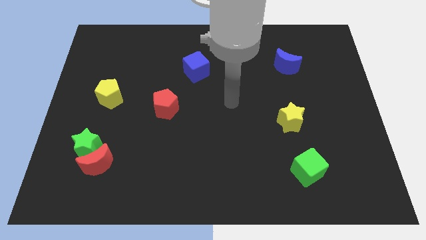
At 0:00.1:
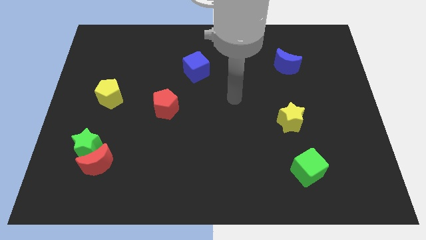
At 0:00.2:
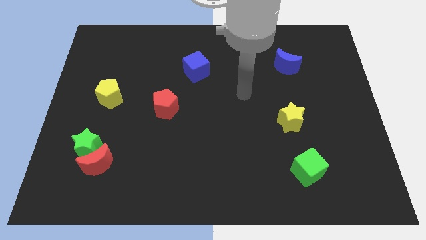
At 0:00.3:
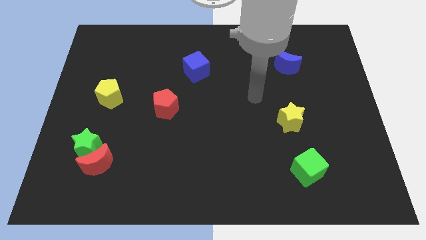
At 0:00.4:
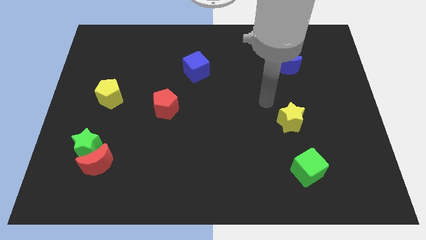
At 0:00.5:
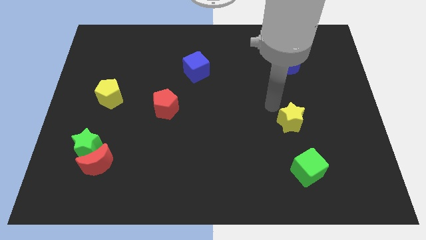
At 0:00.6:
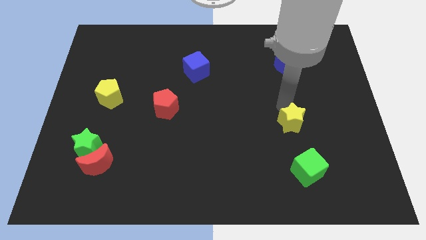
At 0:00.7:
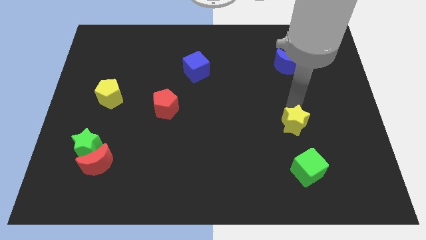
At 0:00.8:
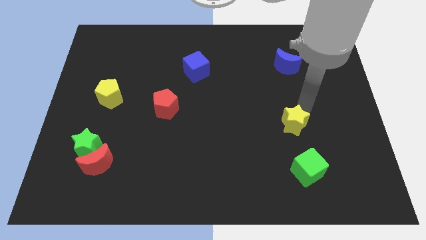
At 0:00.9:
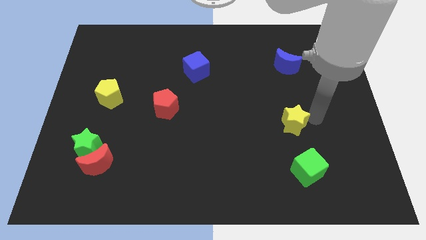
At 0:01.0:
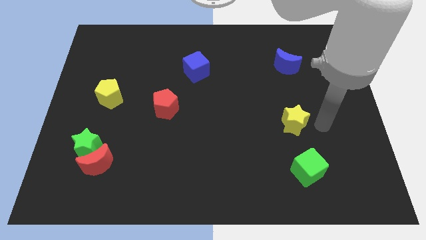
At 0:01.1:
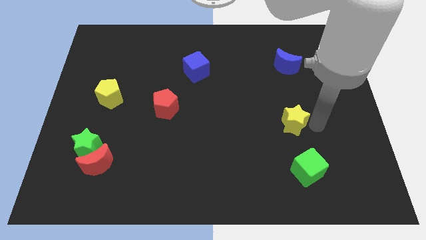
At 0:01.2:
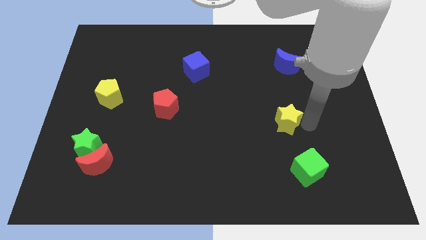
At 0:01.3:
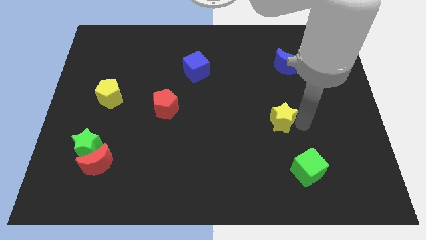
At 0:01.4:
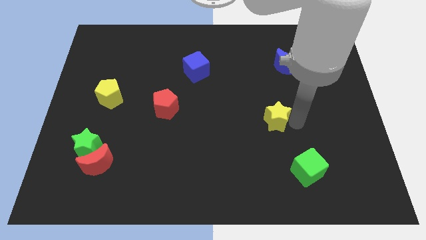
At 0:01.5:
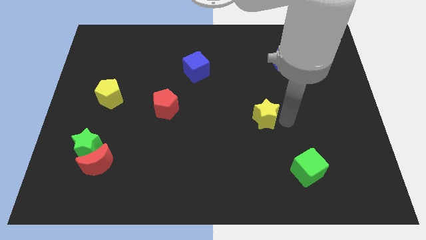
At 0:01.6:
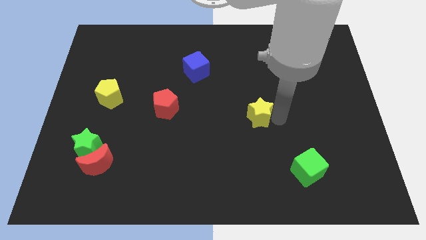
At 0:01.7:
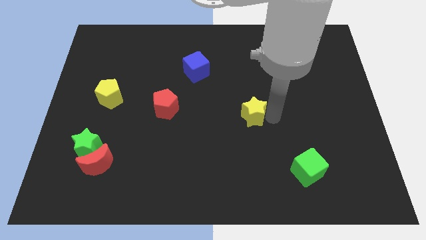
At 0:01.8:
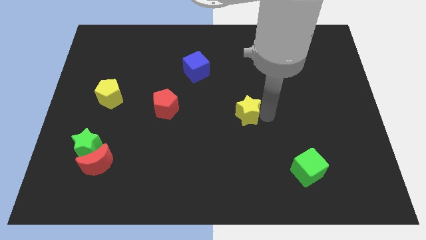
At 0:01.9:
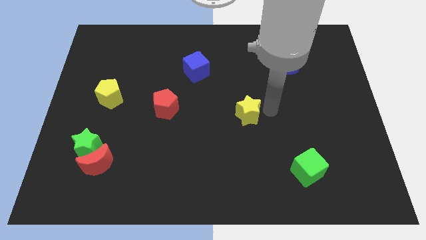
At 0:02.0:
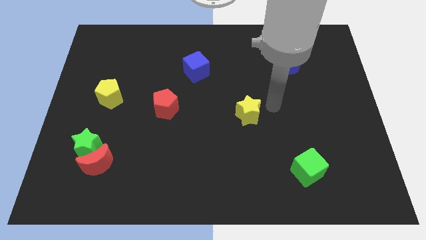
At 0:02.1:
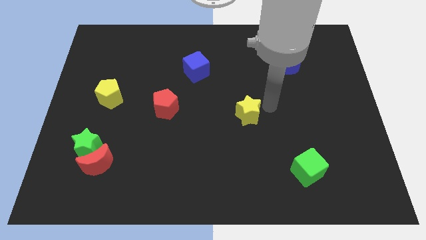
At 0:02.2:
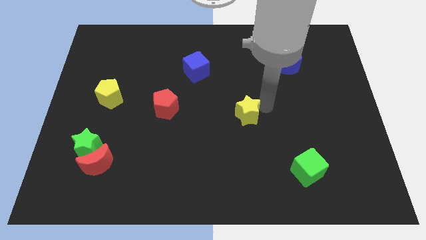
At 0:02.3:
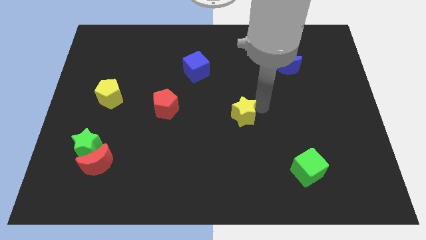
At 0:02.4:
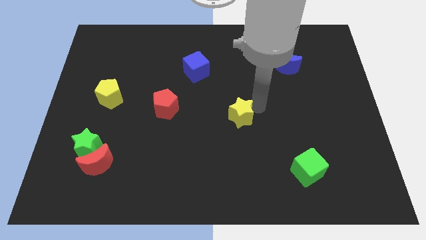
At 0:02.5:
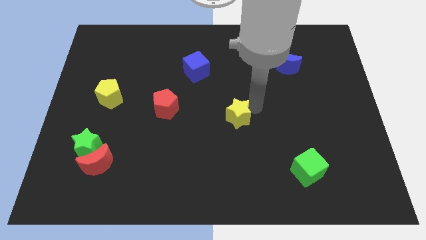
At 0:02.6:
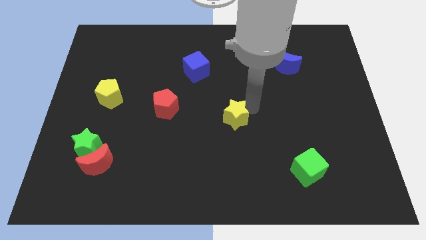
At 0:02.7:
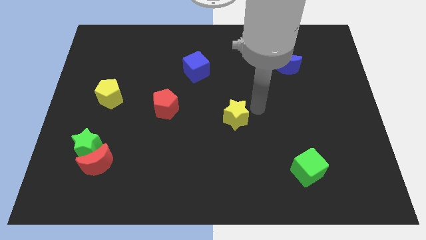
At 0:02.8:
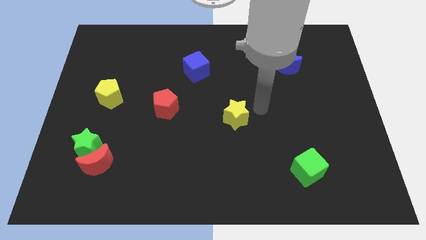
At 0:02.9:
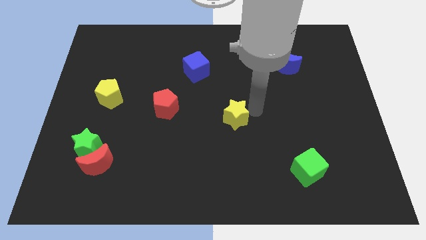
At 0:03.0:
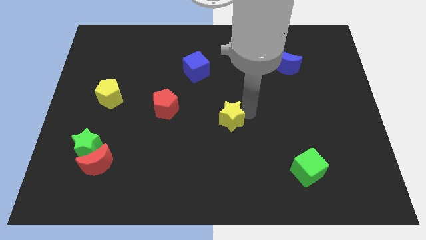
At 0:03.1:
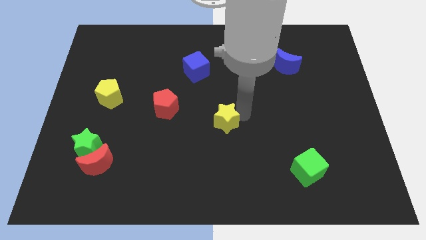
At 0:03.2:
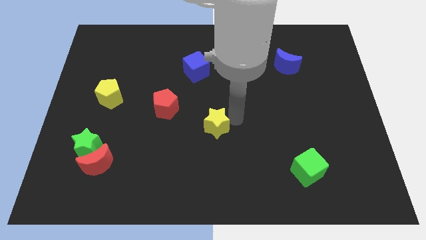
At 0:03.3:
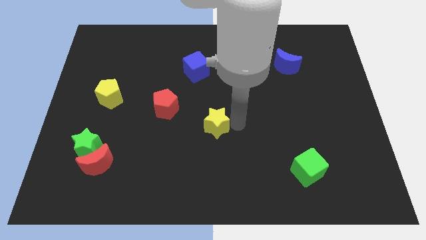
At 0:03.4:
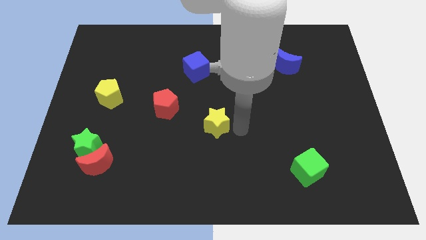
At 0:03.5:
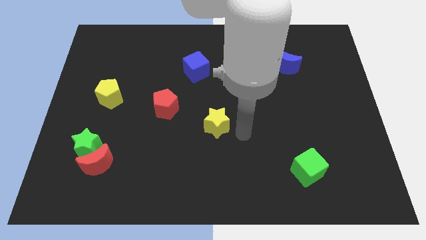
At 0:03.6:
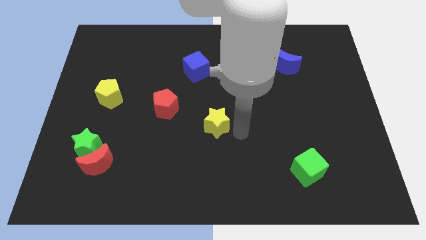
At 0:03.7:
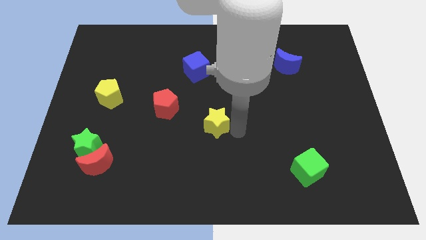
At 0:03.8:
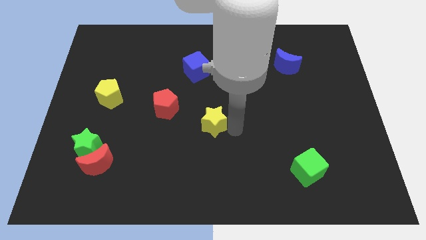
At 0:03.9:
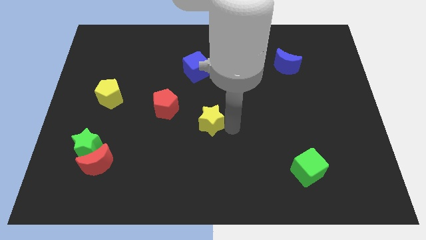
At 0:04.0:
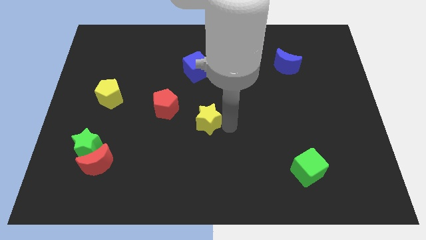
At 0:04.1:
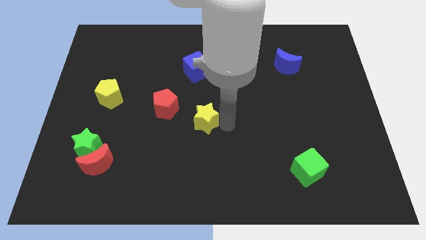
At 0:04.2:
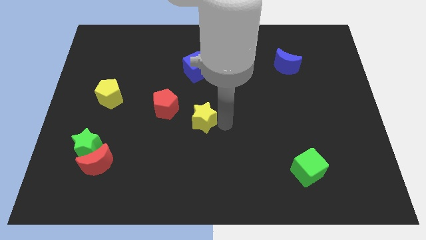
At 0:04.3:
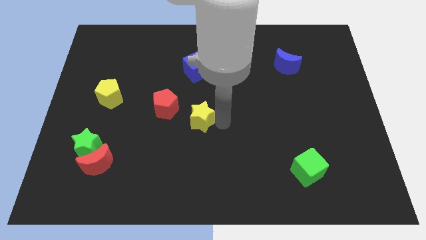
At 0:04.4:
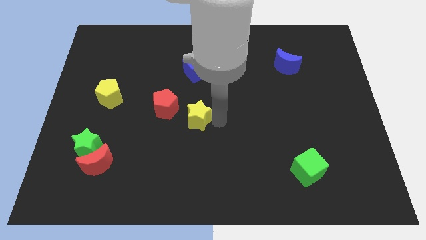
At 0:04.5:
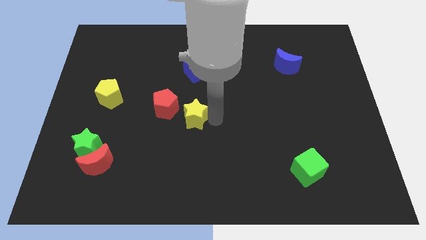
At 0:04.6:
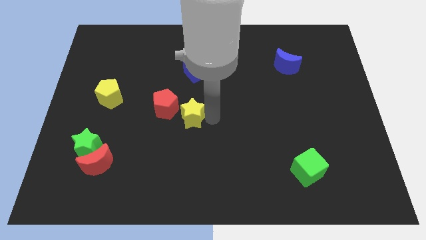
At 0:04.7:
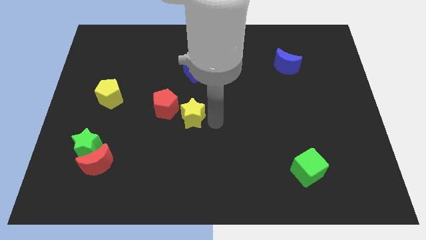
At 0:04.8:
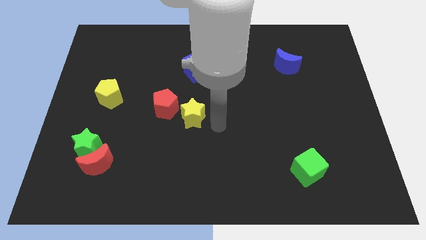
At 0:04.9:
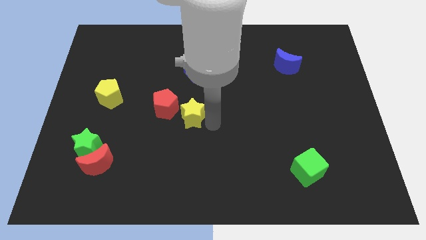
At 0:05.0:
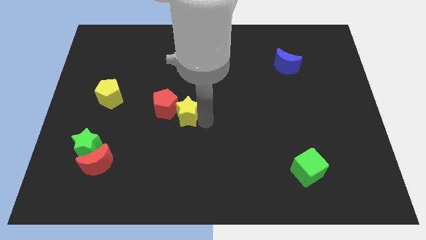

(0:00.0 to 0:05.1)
push the yellow star towards the red pentagon

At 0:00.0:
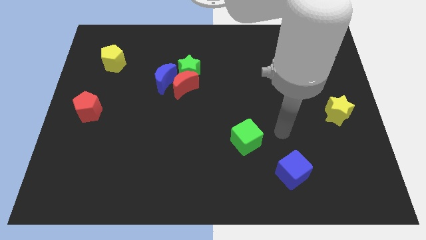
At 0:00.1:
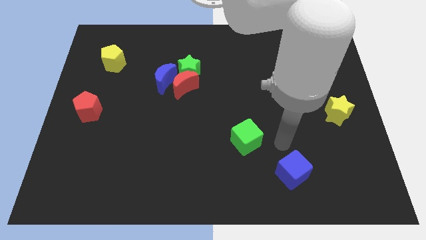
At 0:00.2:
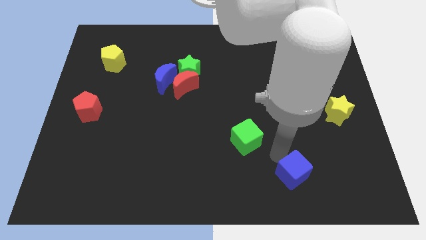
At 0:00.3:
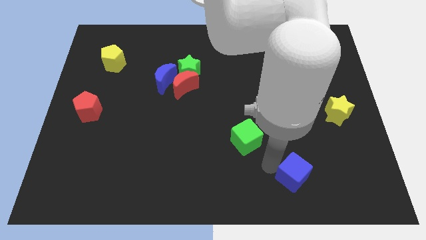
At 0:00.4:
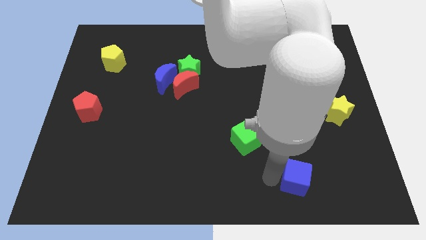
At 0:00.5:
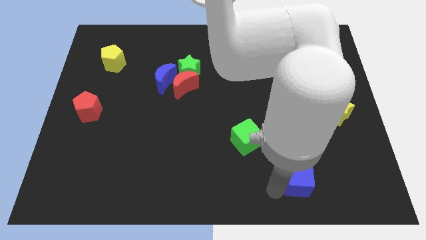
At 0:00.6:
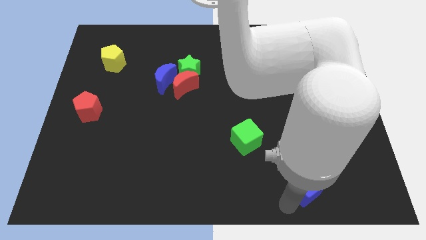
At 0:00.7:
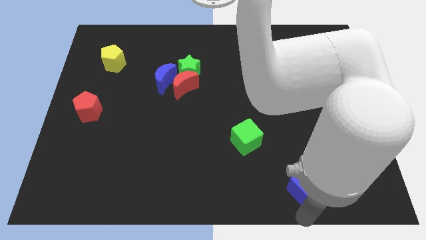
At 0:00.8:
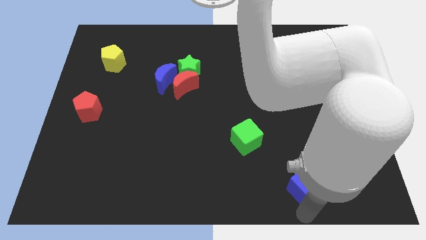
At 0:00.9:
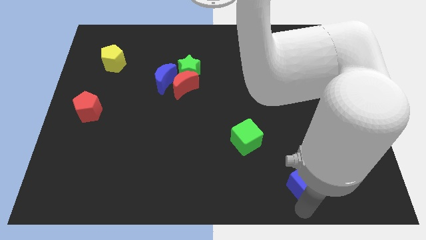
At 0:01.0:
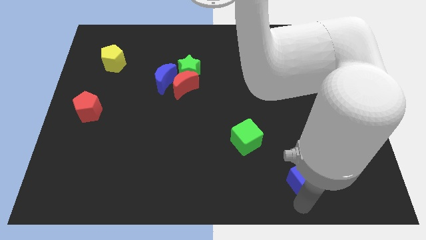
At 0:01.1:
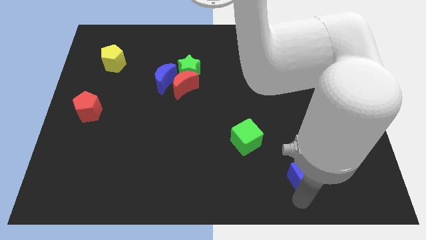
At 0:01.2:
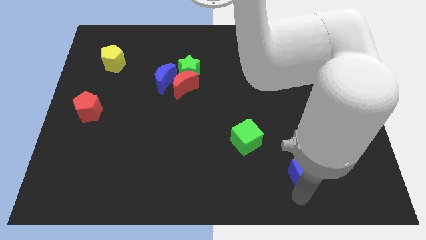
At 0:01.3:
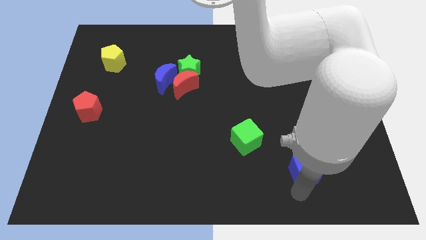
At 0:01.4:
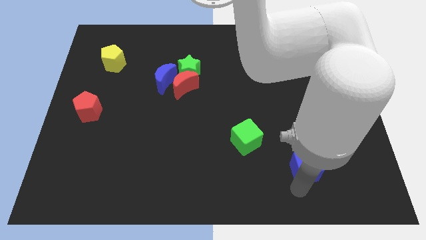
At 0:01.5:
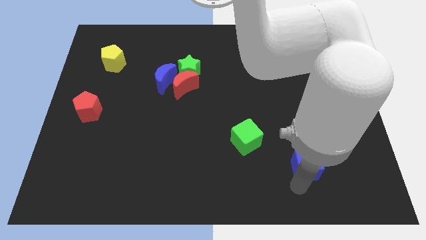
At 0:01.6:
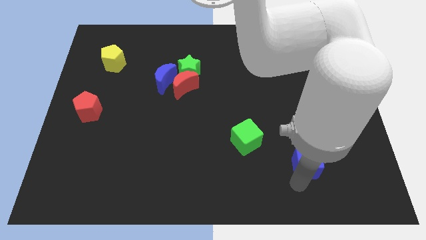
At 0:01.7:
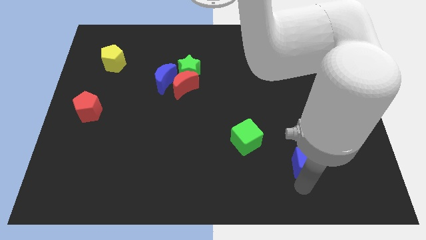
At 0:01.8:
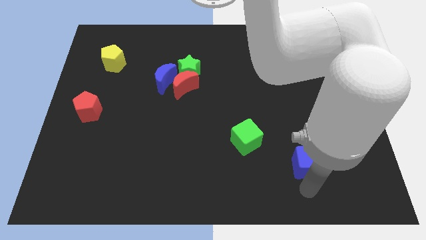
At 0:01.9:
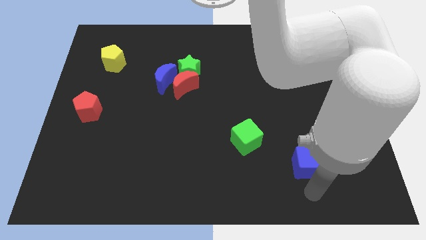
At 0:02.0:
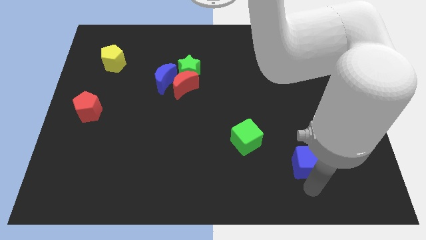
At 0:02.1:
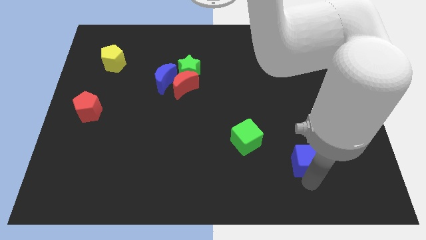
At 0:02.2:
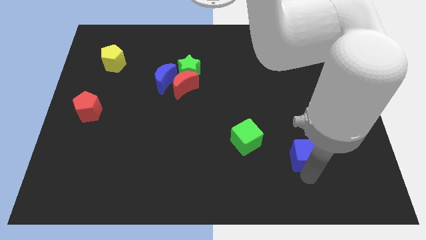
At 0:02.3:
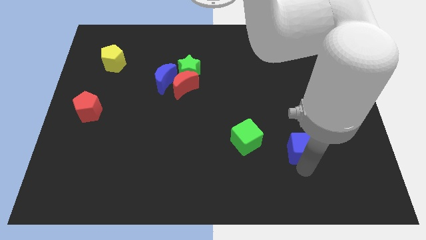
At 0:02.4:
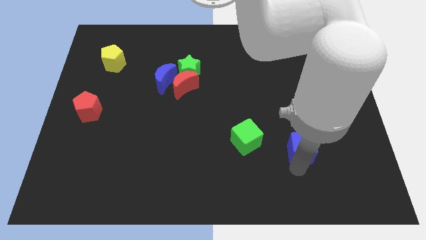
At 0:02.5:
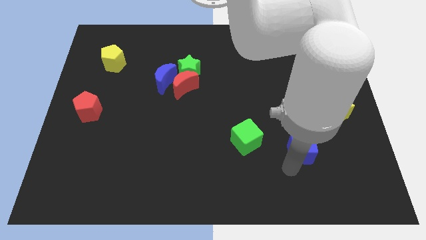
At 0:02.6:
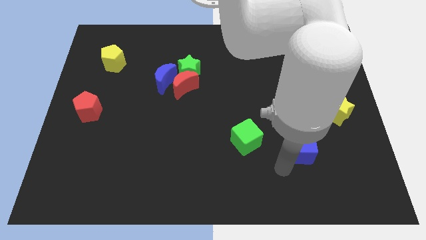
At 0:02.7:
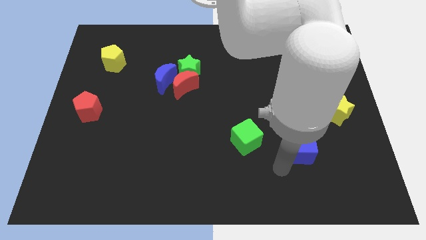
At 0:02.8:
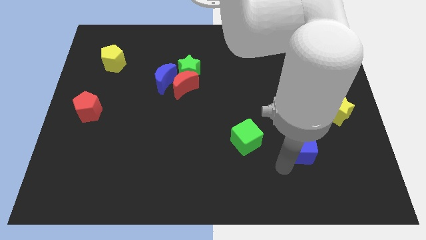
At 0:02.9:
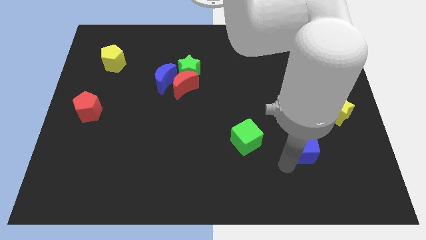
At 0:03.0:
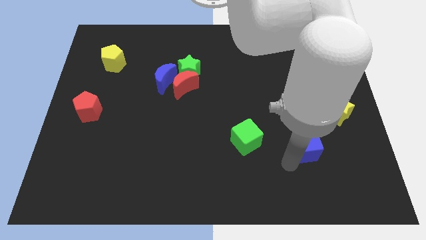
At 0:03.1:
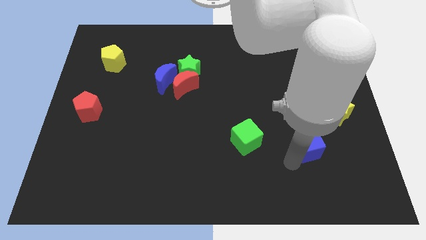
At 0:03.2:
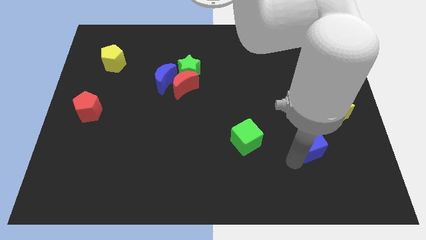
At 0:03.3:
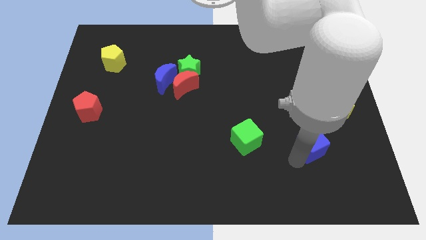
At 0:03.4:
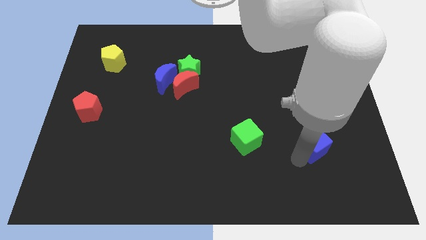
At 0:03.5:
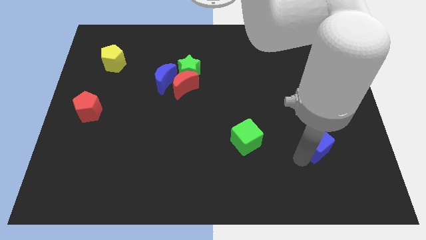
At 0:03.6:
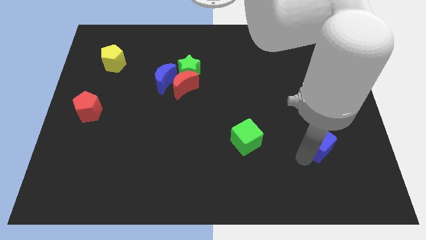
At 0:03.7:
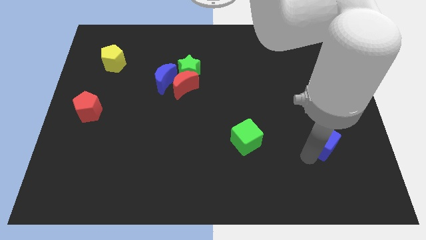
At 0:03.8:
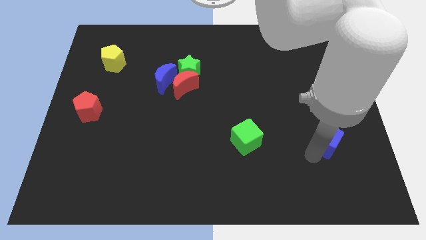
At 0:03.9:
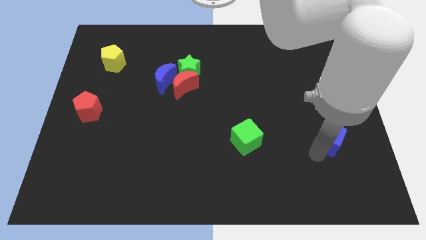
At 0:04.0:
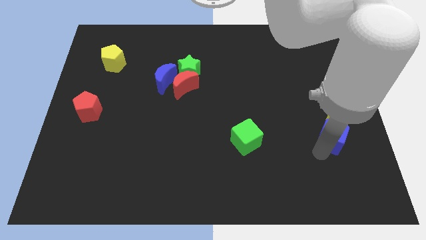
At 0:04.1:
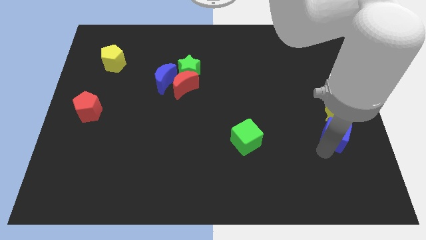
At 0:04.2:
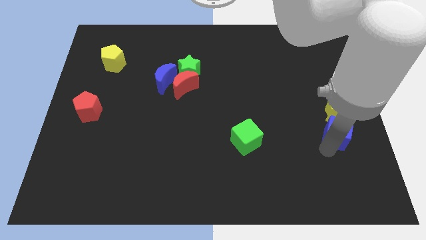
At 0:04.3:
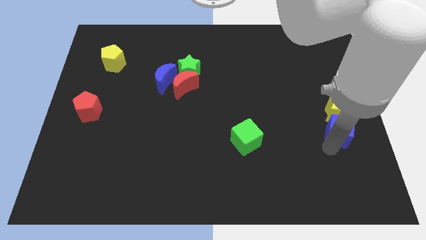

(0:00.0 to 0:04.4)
move the blue cube to the yellow star
